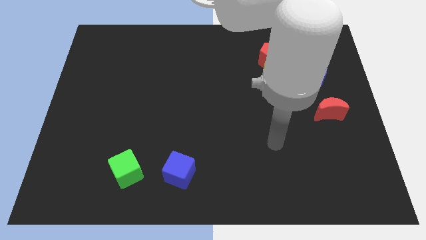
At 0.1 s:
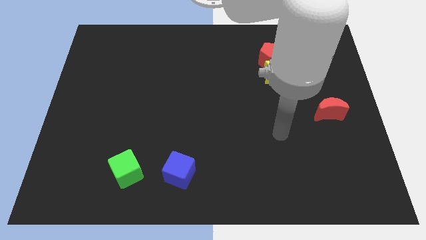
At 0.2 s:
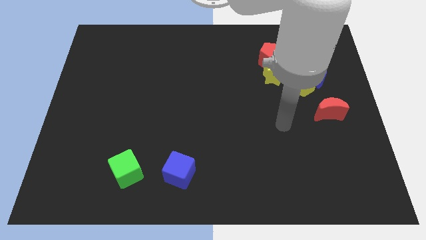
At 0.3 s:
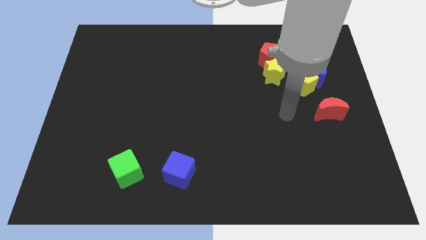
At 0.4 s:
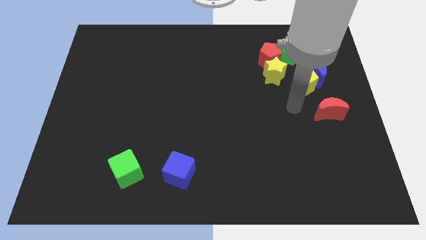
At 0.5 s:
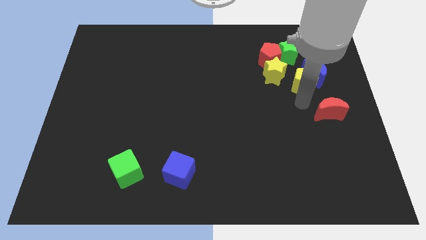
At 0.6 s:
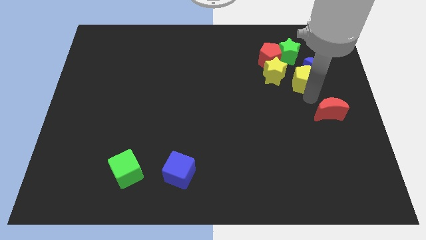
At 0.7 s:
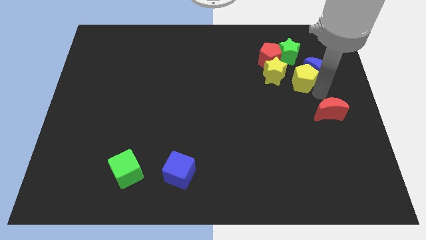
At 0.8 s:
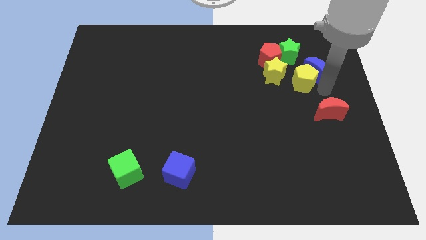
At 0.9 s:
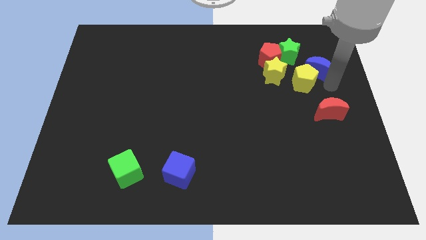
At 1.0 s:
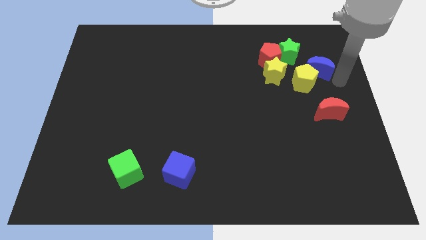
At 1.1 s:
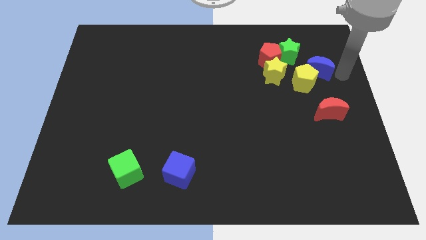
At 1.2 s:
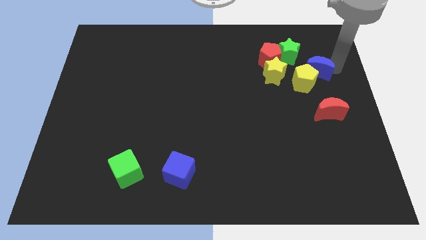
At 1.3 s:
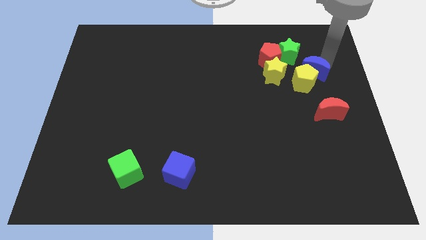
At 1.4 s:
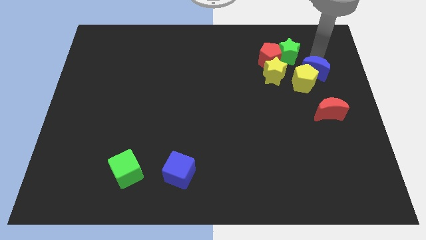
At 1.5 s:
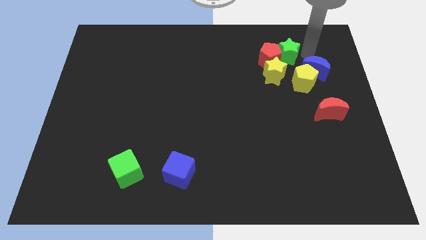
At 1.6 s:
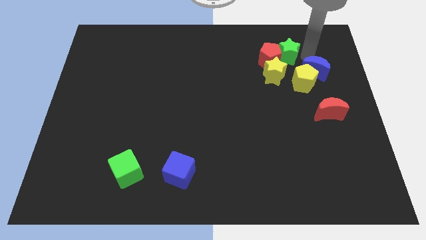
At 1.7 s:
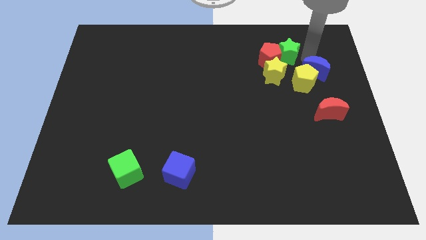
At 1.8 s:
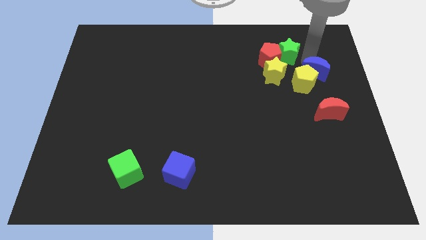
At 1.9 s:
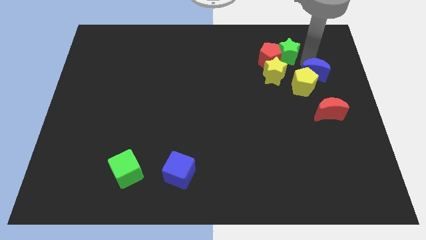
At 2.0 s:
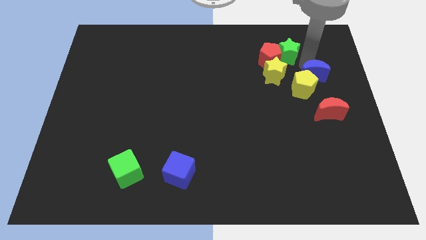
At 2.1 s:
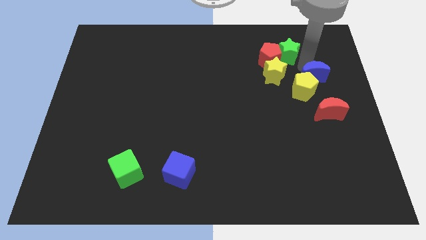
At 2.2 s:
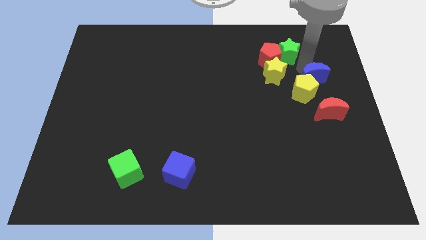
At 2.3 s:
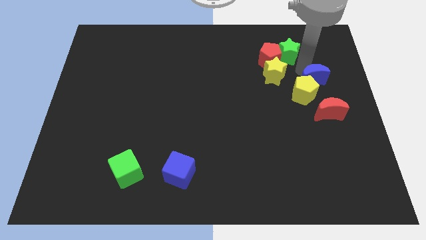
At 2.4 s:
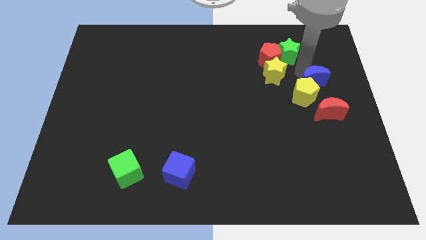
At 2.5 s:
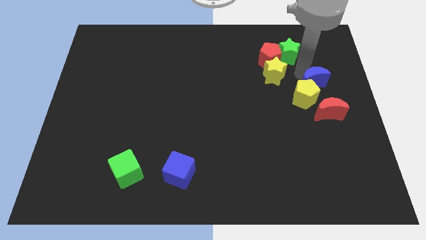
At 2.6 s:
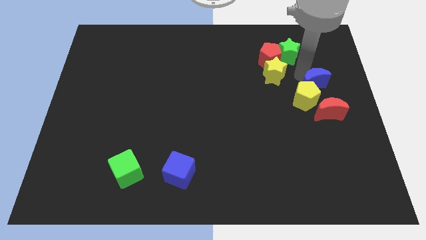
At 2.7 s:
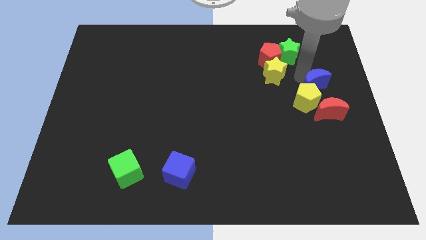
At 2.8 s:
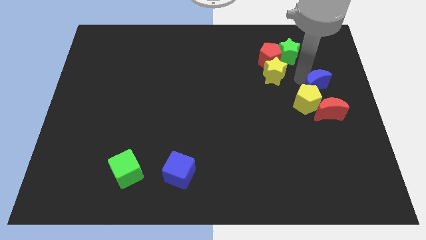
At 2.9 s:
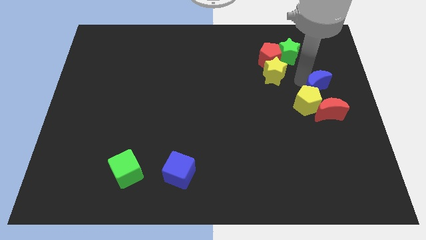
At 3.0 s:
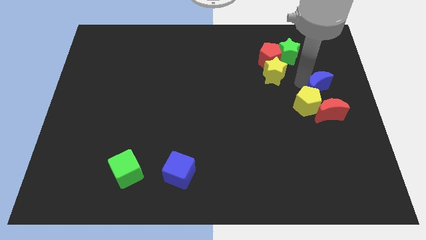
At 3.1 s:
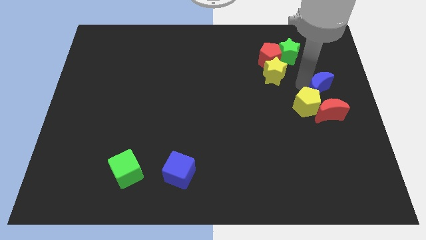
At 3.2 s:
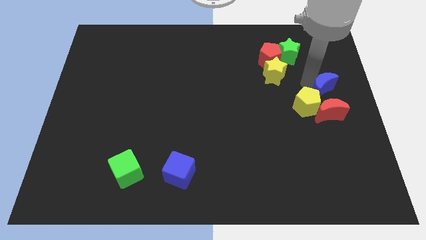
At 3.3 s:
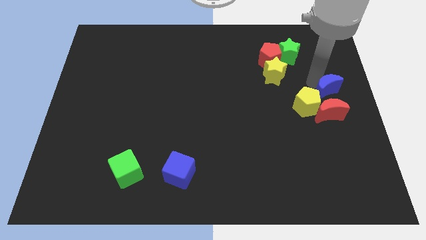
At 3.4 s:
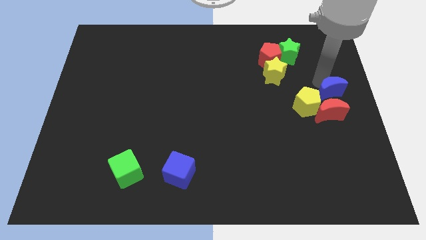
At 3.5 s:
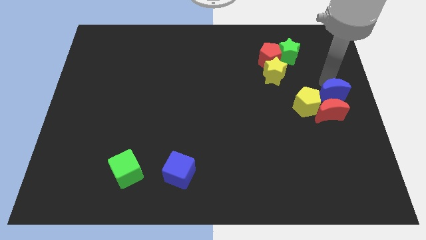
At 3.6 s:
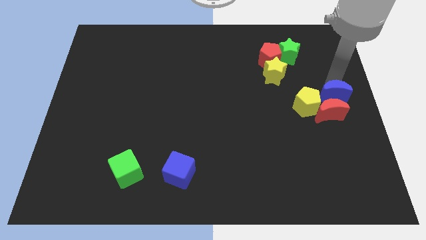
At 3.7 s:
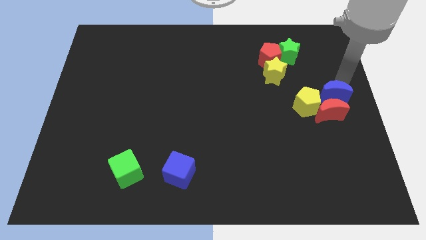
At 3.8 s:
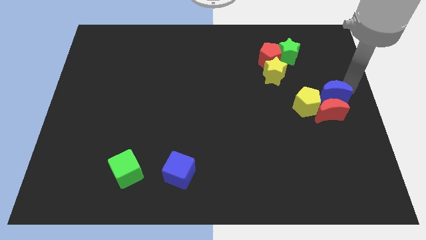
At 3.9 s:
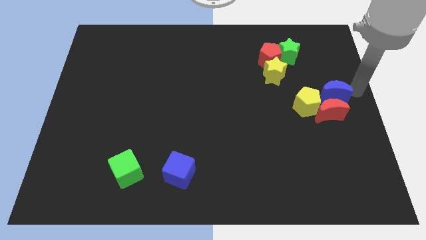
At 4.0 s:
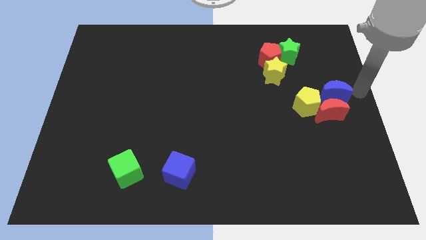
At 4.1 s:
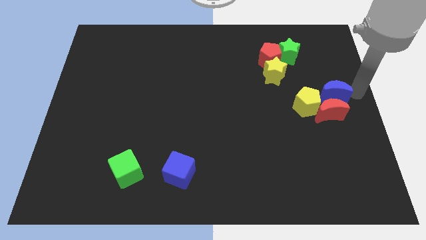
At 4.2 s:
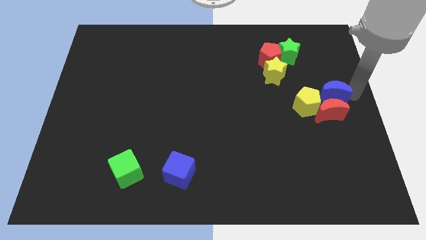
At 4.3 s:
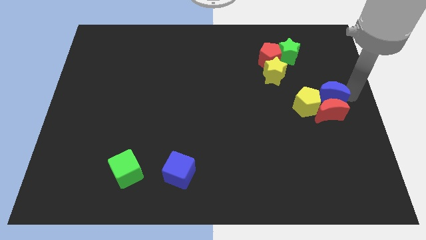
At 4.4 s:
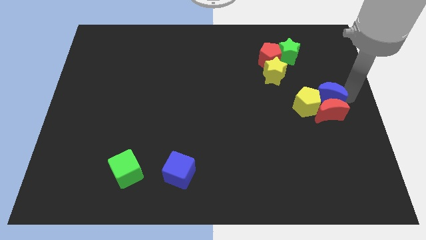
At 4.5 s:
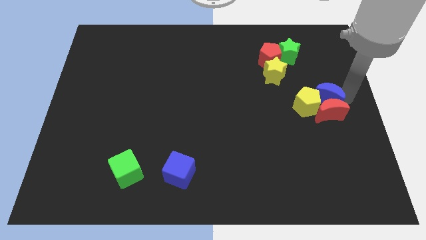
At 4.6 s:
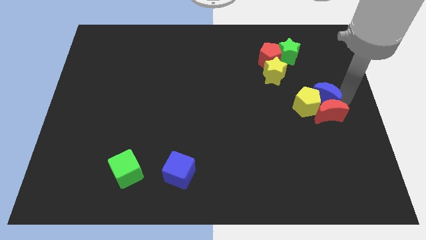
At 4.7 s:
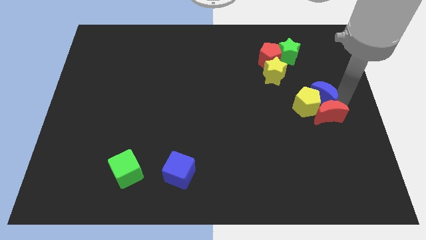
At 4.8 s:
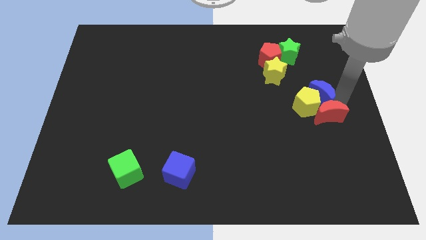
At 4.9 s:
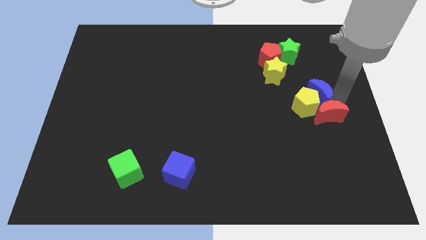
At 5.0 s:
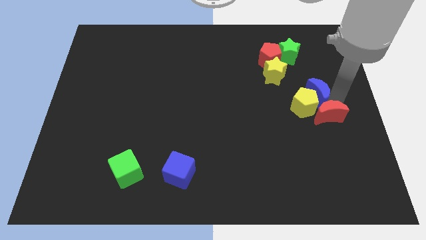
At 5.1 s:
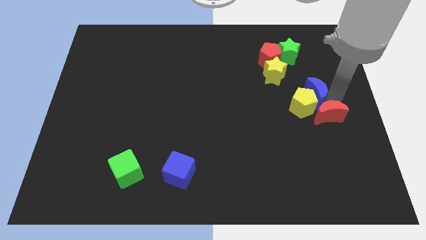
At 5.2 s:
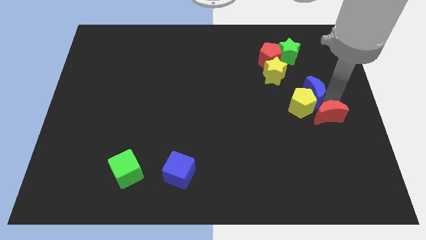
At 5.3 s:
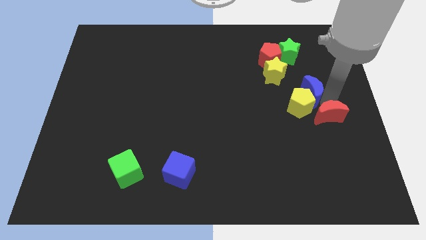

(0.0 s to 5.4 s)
put the blue moon to the bottom side of the green star

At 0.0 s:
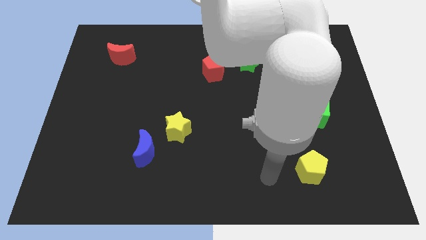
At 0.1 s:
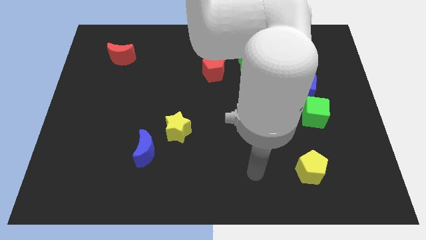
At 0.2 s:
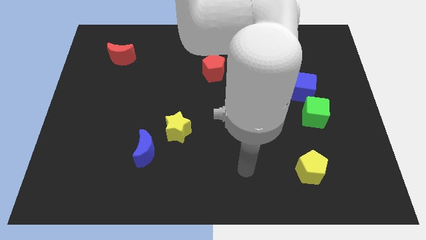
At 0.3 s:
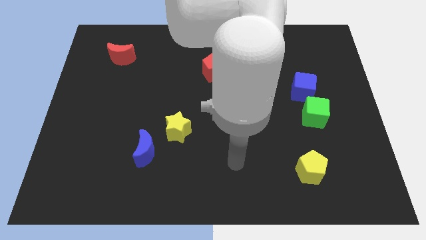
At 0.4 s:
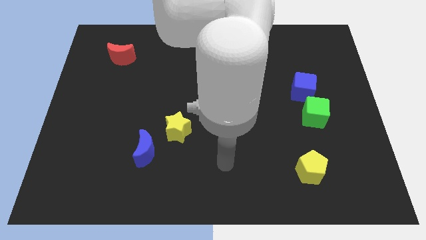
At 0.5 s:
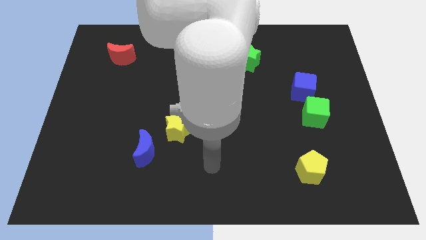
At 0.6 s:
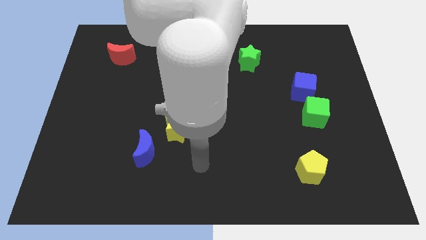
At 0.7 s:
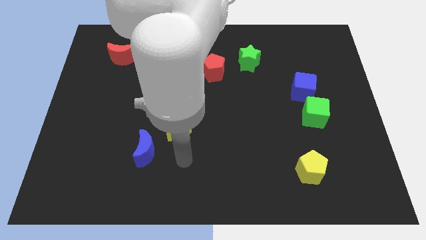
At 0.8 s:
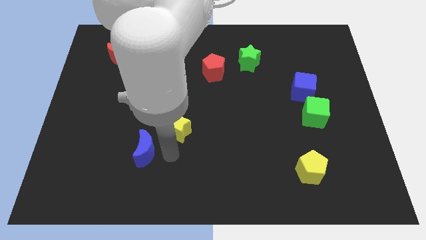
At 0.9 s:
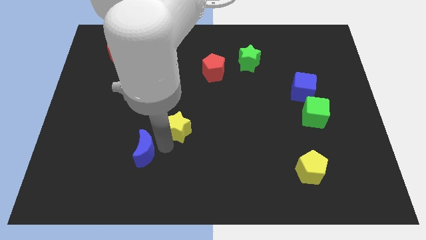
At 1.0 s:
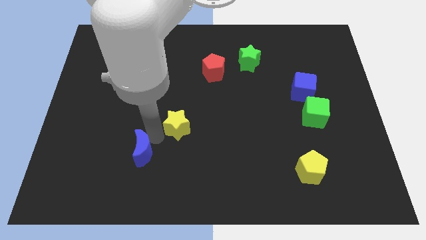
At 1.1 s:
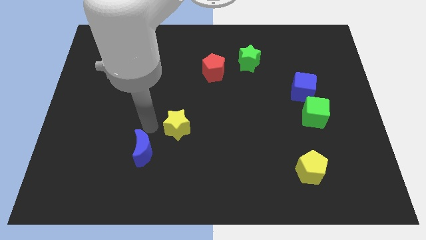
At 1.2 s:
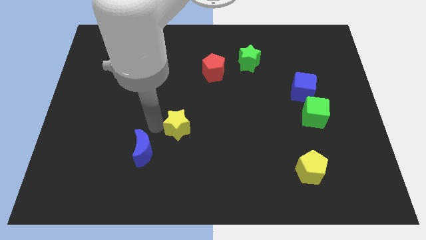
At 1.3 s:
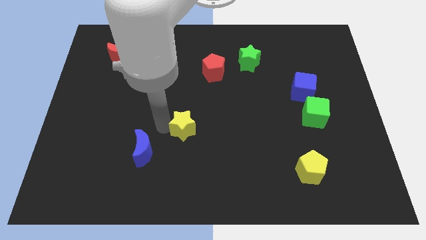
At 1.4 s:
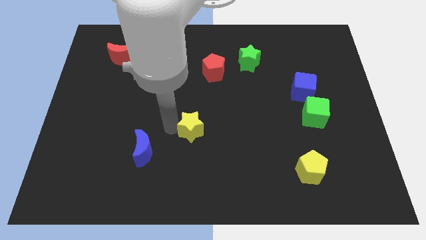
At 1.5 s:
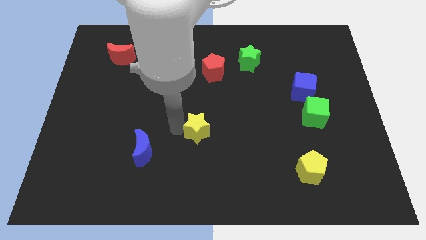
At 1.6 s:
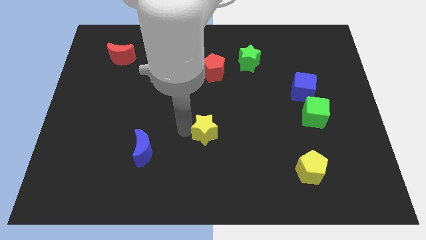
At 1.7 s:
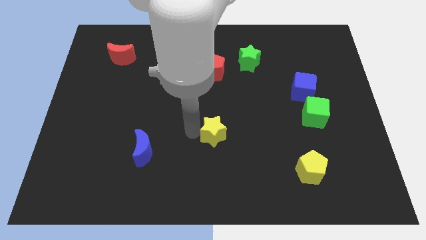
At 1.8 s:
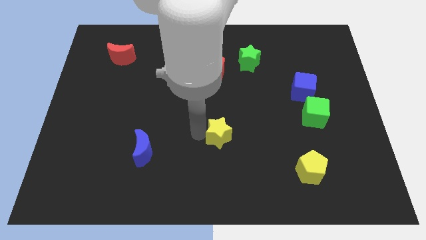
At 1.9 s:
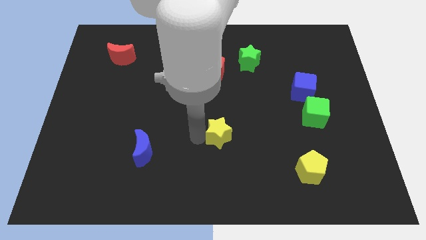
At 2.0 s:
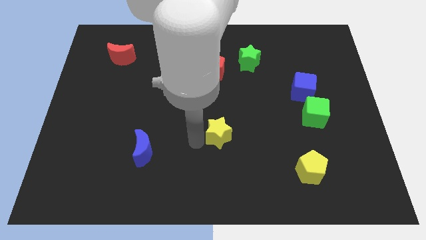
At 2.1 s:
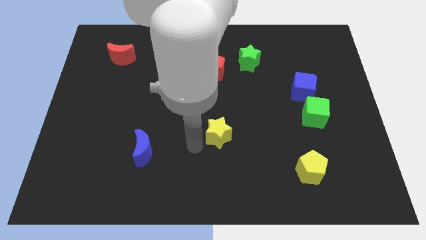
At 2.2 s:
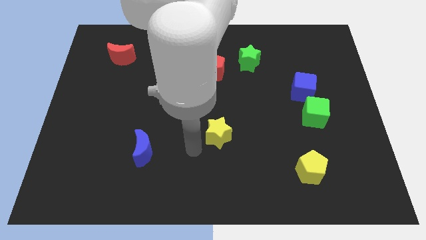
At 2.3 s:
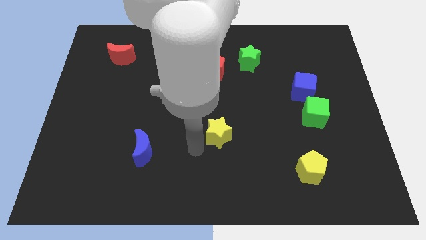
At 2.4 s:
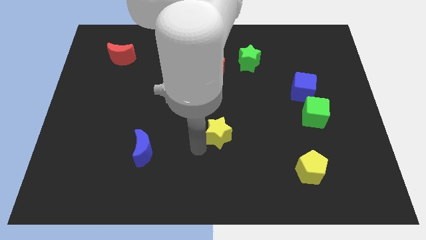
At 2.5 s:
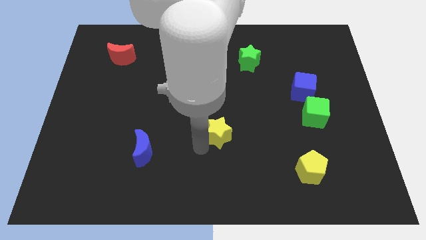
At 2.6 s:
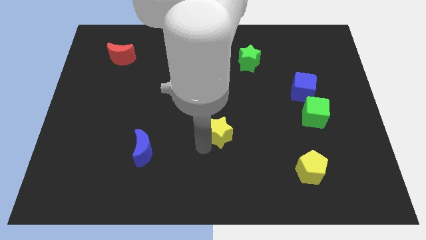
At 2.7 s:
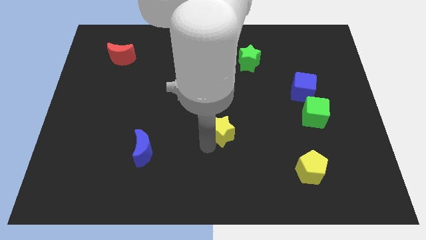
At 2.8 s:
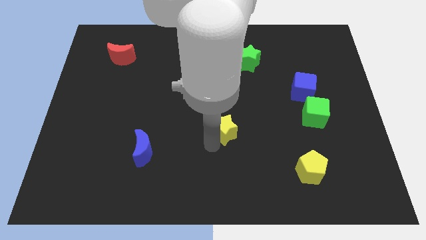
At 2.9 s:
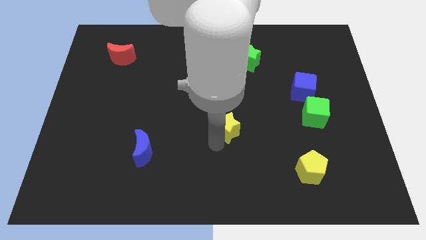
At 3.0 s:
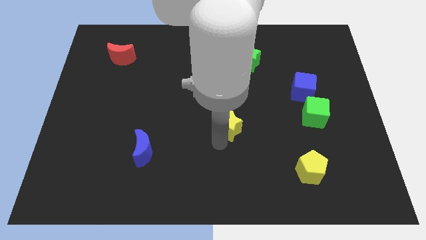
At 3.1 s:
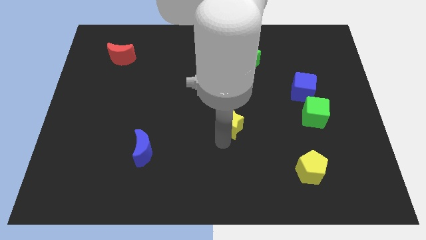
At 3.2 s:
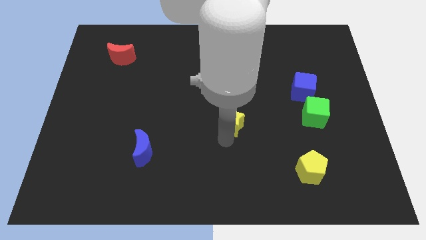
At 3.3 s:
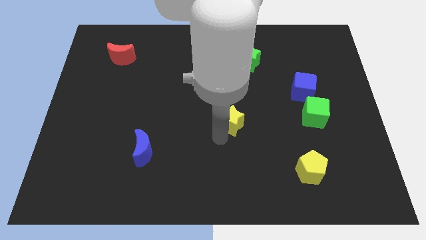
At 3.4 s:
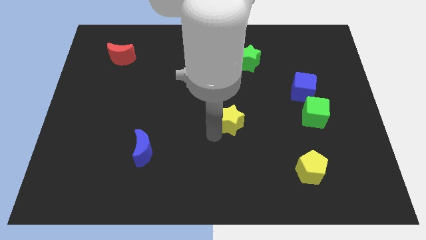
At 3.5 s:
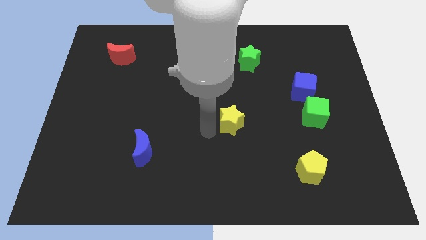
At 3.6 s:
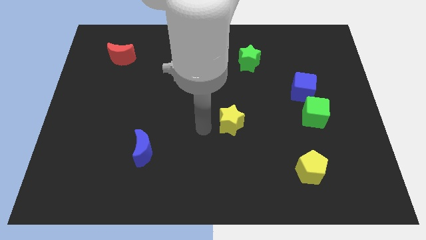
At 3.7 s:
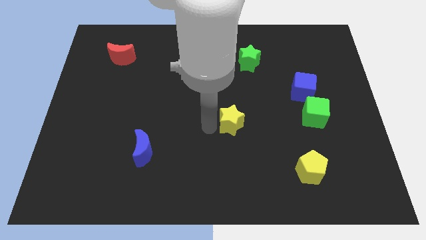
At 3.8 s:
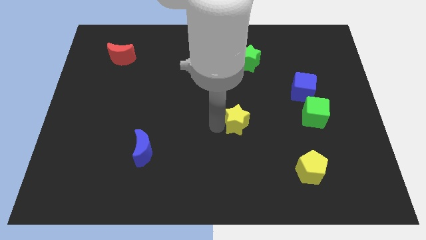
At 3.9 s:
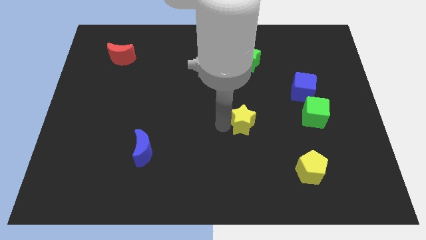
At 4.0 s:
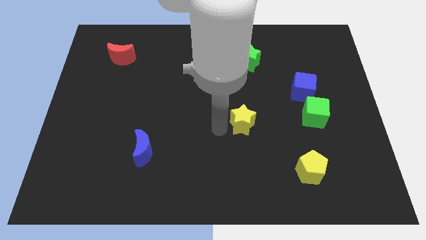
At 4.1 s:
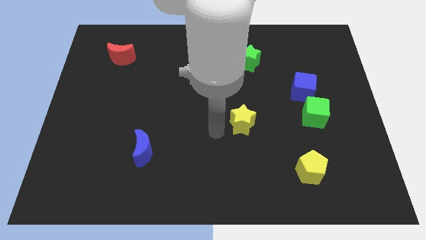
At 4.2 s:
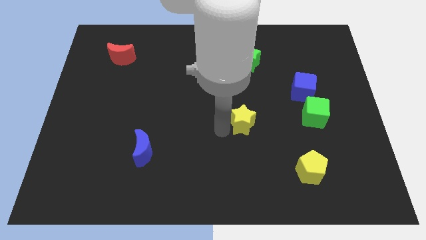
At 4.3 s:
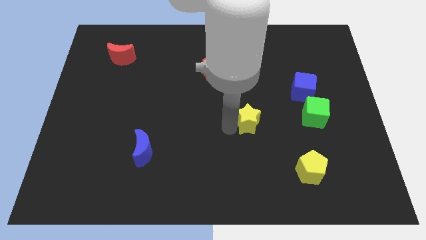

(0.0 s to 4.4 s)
put the yellow star just left of the green cube
